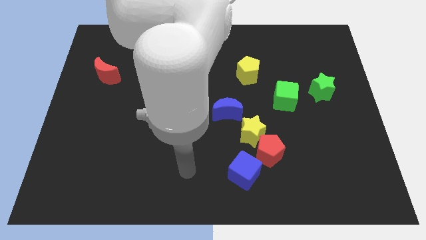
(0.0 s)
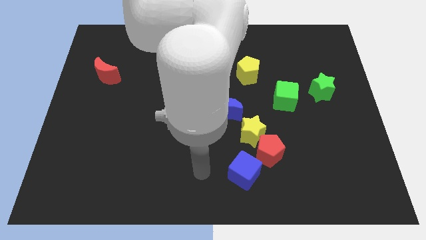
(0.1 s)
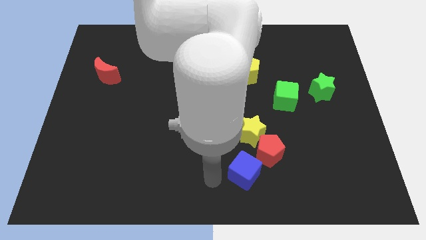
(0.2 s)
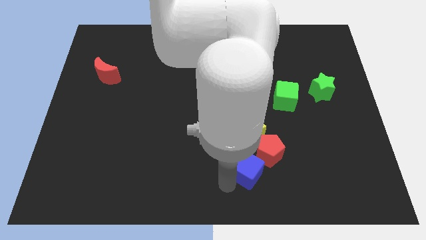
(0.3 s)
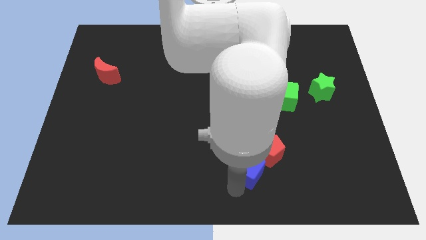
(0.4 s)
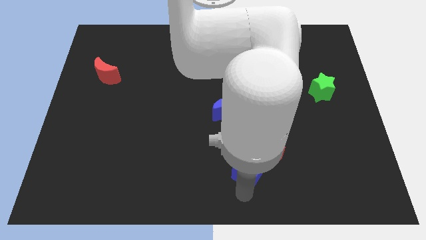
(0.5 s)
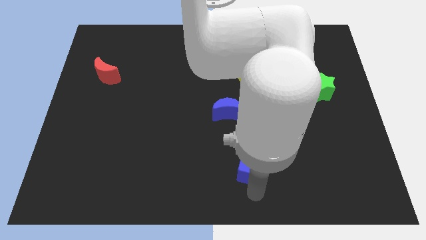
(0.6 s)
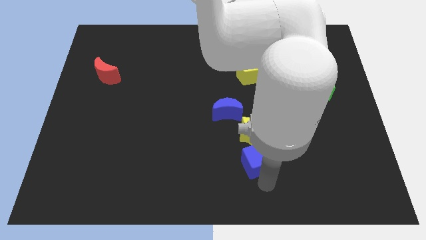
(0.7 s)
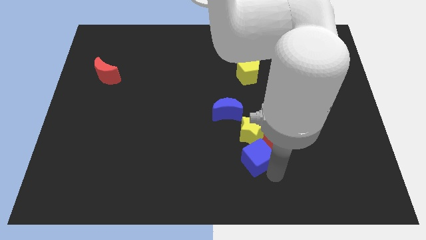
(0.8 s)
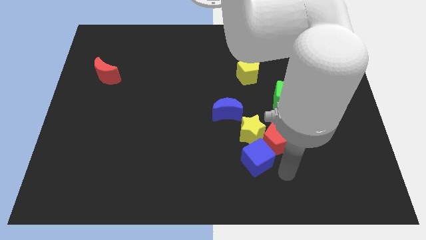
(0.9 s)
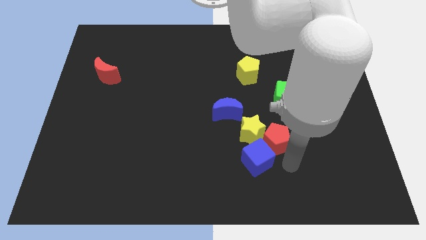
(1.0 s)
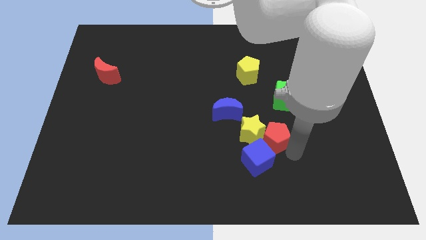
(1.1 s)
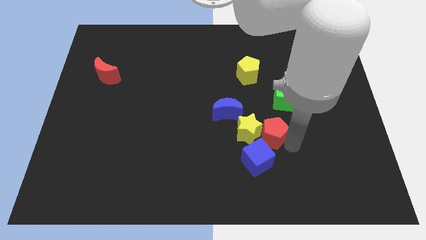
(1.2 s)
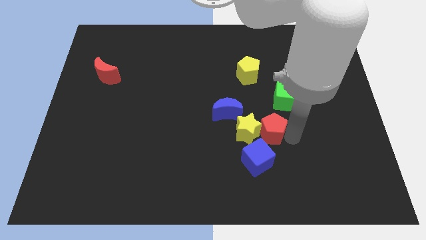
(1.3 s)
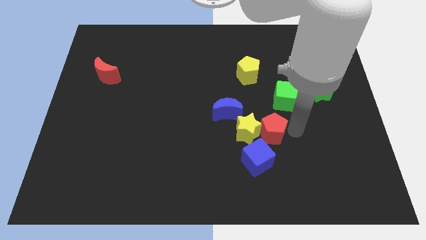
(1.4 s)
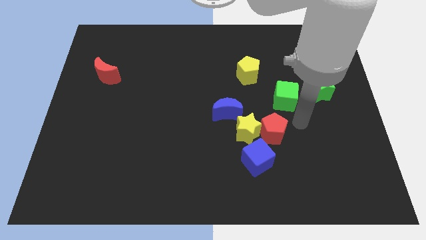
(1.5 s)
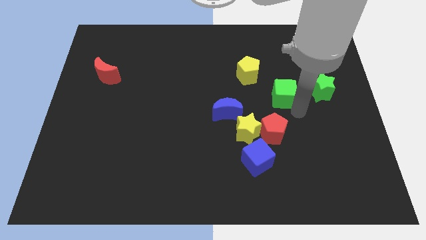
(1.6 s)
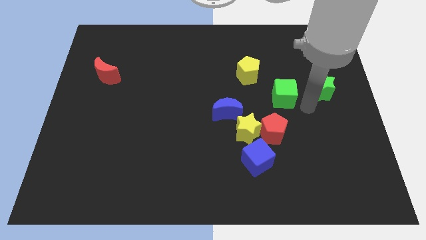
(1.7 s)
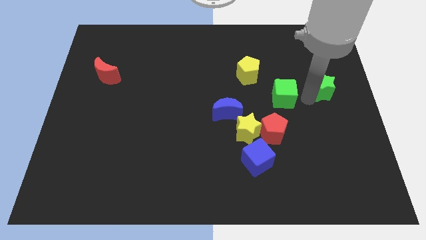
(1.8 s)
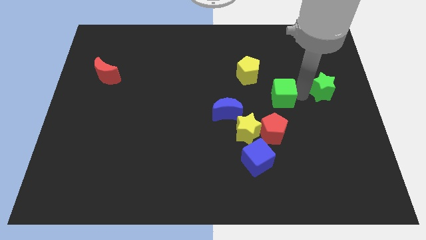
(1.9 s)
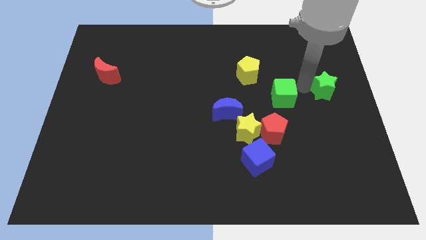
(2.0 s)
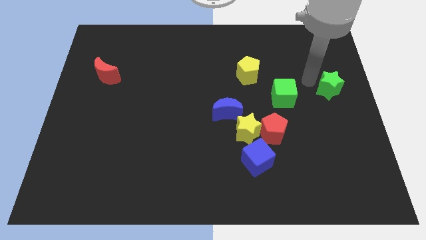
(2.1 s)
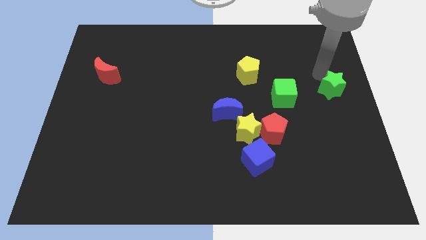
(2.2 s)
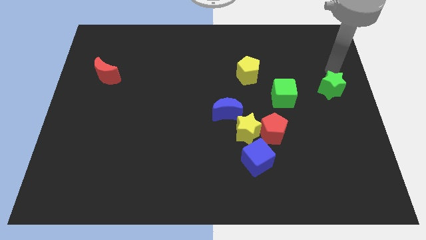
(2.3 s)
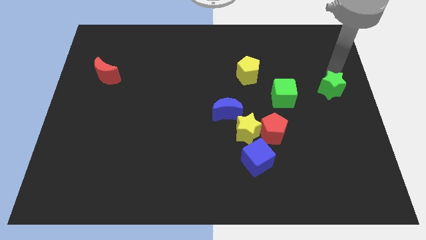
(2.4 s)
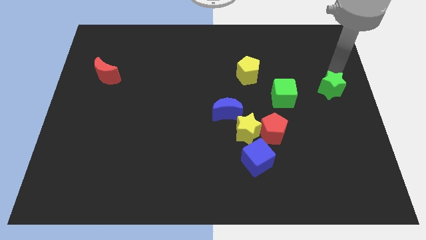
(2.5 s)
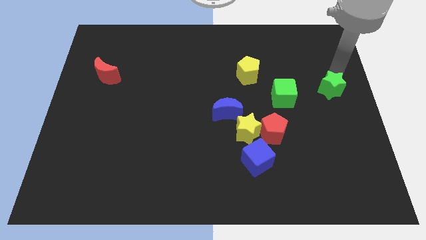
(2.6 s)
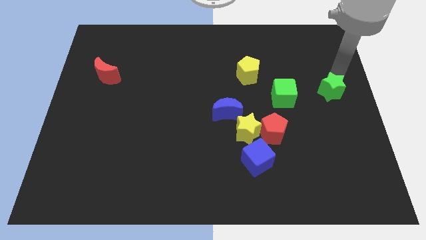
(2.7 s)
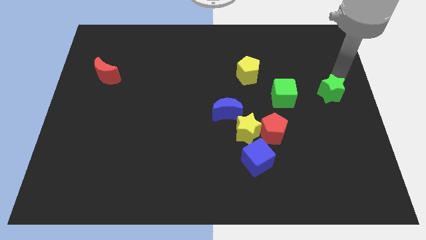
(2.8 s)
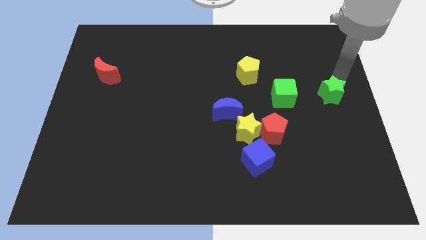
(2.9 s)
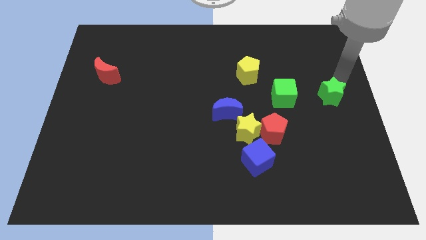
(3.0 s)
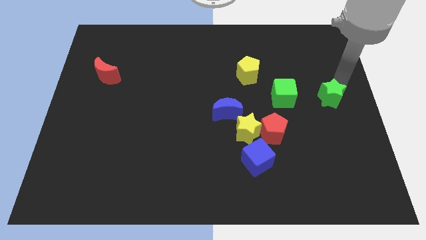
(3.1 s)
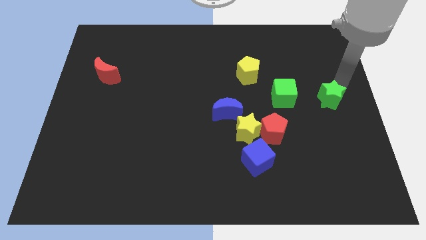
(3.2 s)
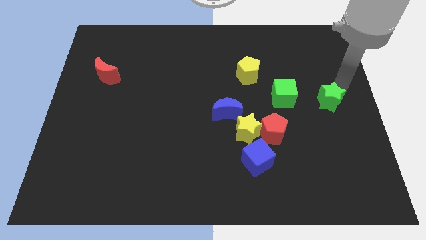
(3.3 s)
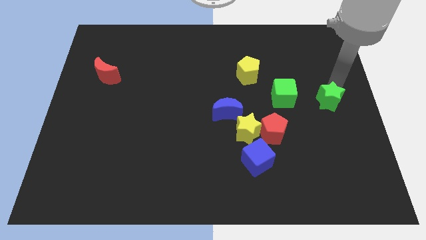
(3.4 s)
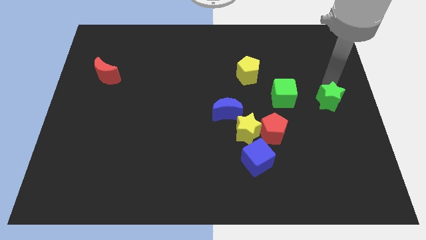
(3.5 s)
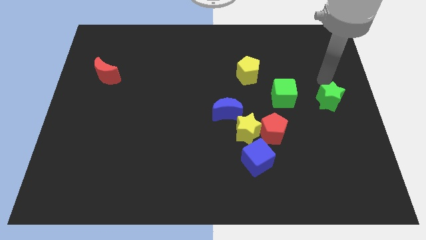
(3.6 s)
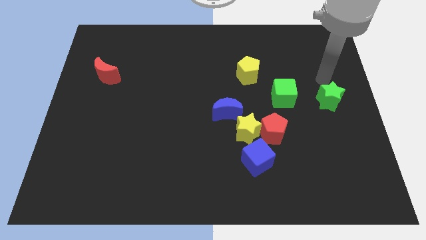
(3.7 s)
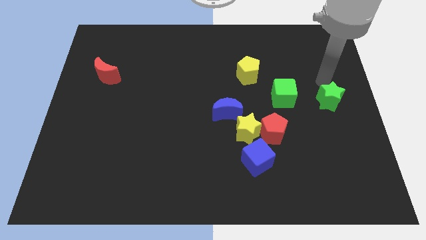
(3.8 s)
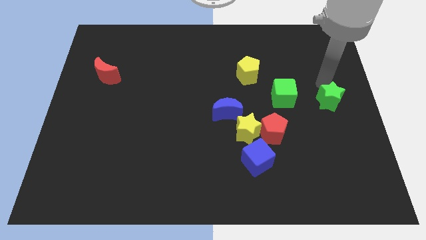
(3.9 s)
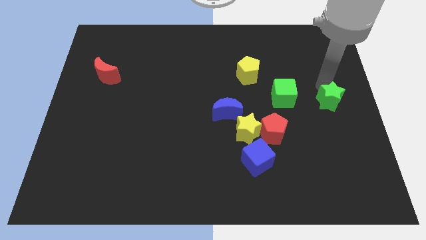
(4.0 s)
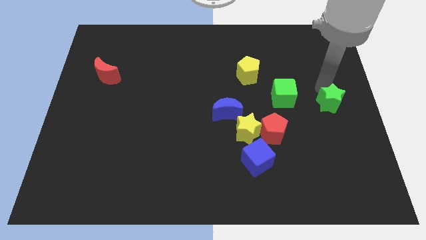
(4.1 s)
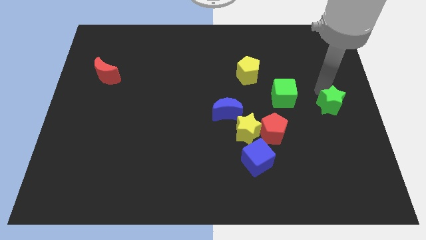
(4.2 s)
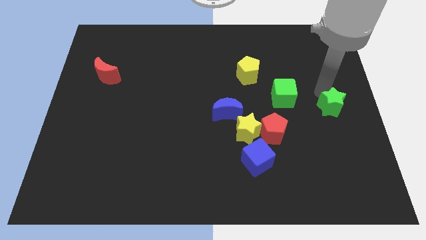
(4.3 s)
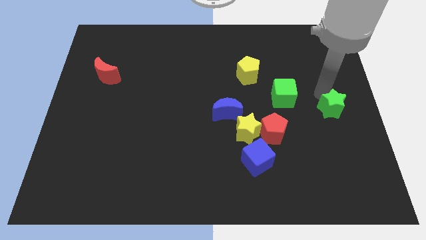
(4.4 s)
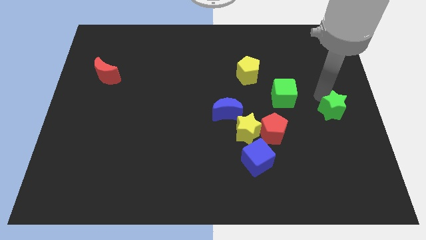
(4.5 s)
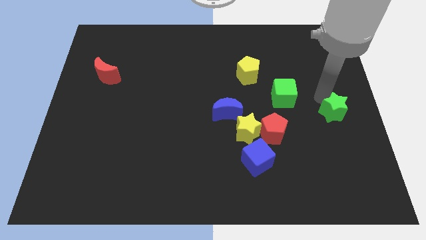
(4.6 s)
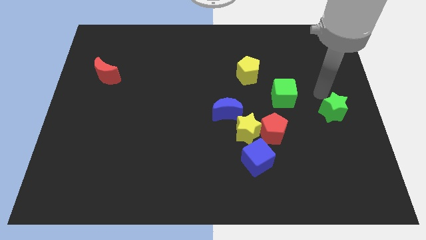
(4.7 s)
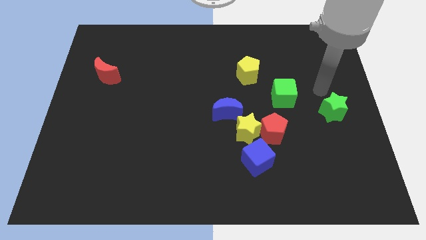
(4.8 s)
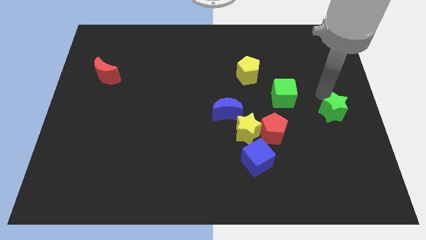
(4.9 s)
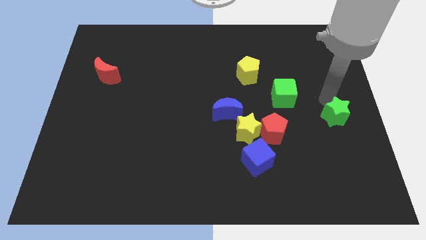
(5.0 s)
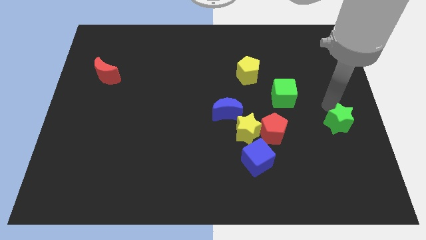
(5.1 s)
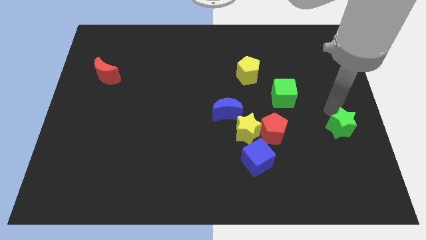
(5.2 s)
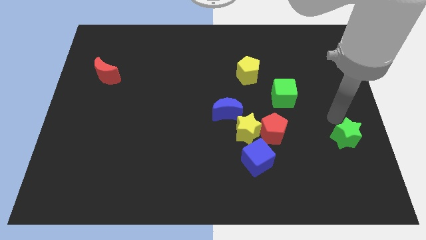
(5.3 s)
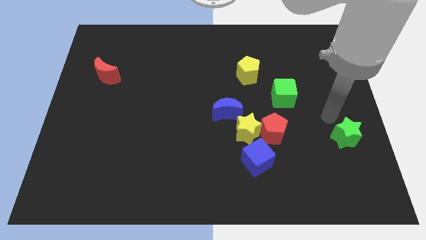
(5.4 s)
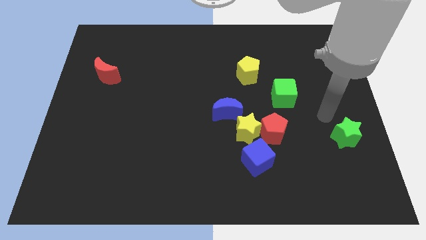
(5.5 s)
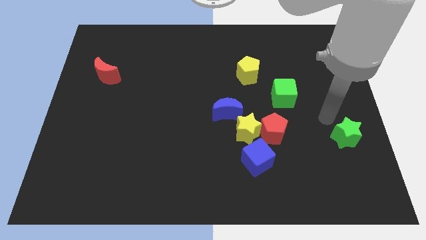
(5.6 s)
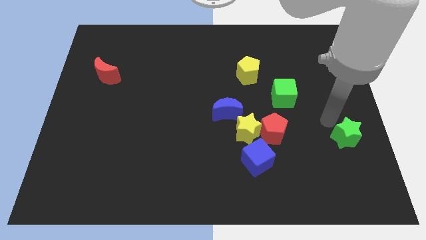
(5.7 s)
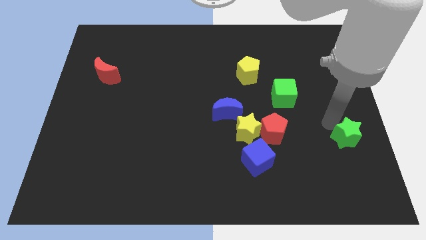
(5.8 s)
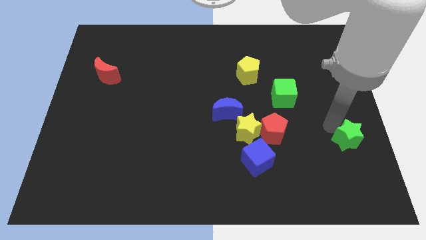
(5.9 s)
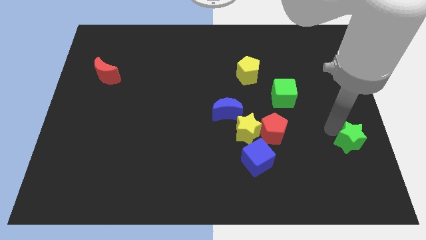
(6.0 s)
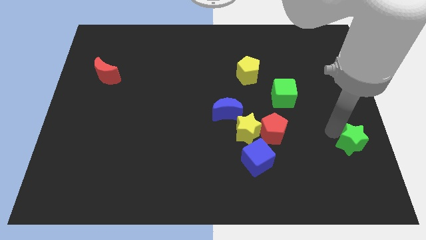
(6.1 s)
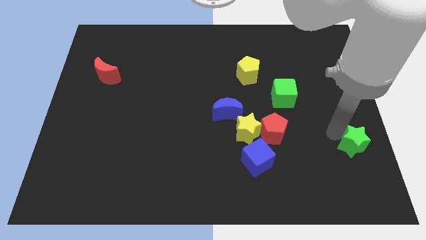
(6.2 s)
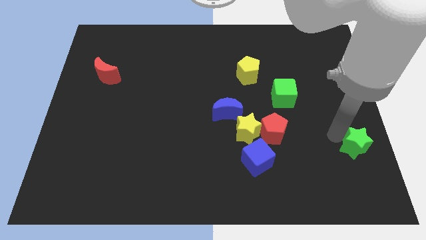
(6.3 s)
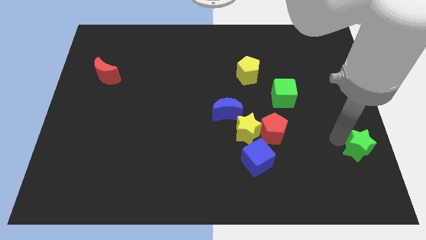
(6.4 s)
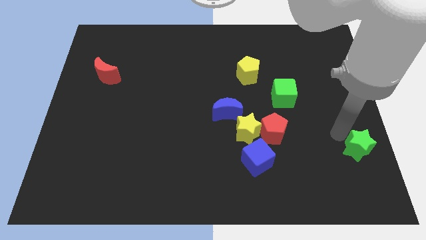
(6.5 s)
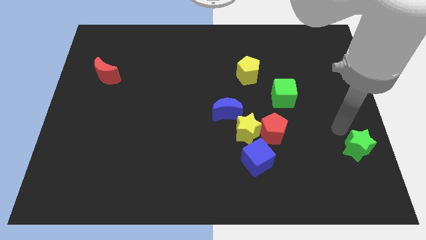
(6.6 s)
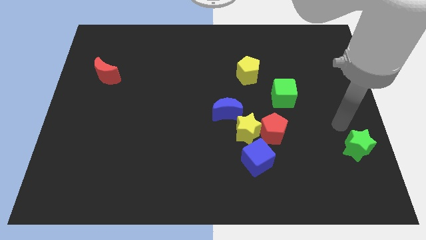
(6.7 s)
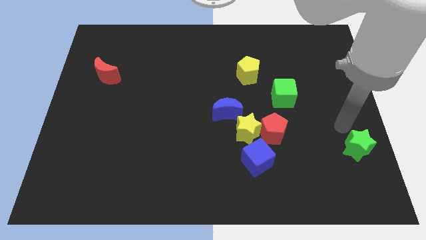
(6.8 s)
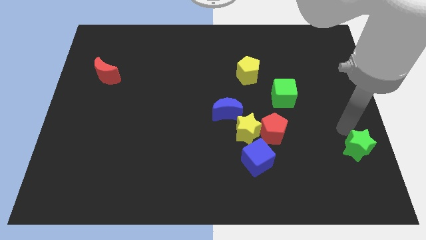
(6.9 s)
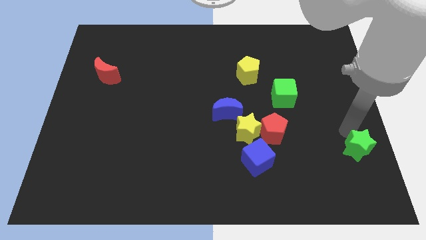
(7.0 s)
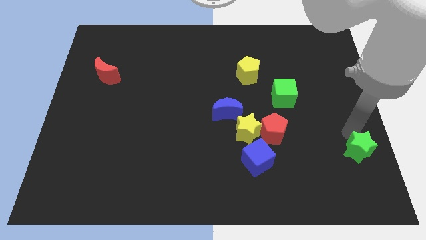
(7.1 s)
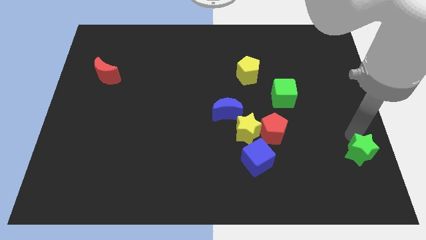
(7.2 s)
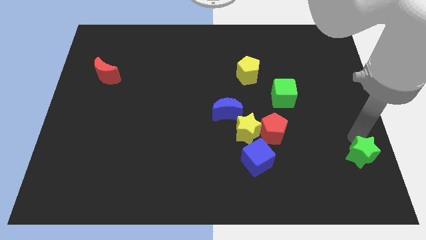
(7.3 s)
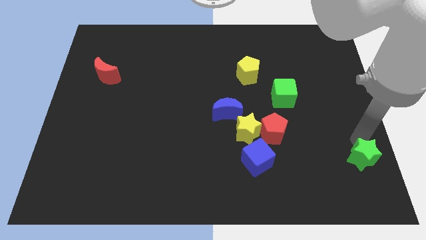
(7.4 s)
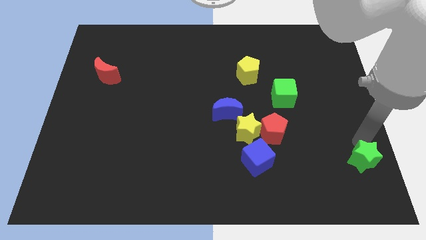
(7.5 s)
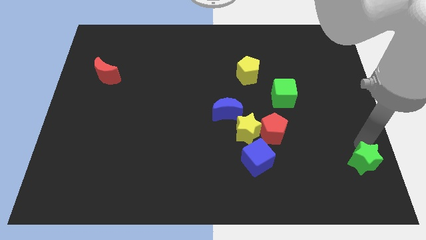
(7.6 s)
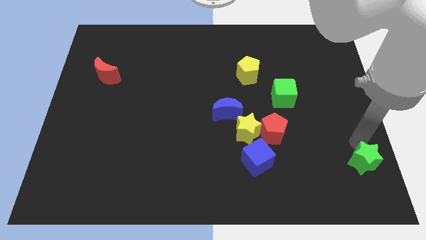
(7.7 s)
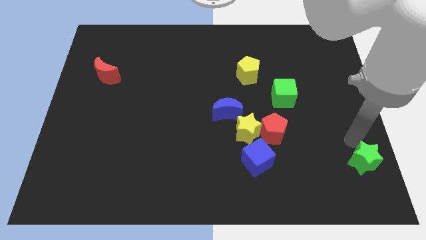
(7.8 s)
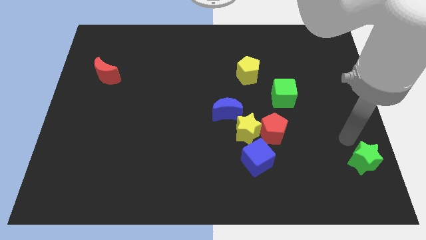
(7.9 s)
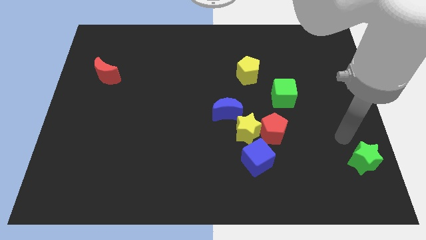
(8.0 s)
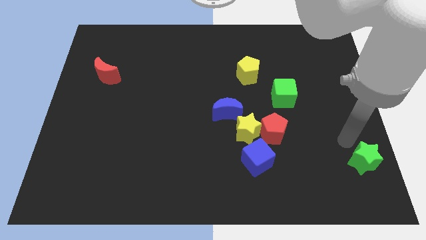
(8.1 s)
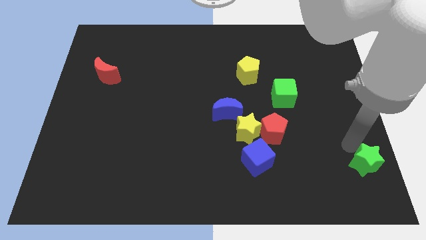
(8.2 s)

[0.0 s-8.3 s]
push the green star to the bottom right of the board
